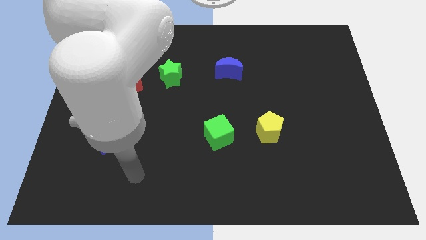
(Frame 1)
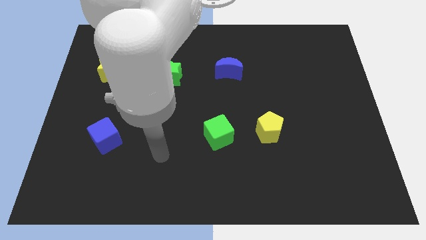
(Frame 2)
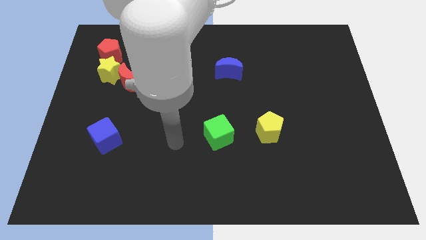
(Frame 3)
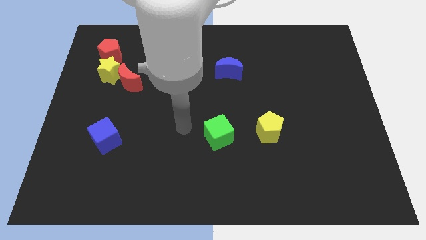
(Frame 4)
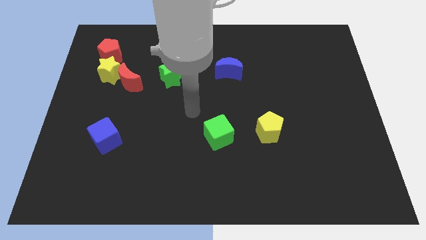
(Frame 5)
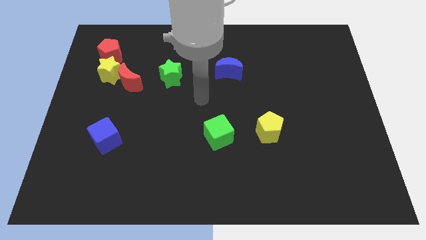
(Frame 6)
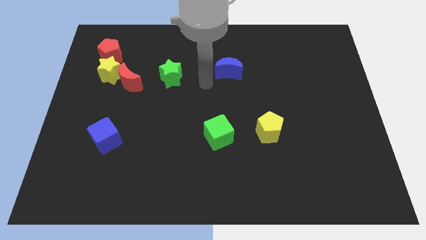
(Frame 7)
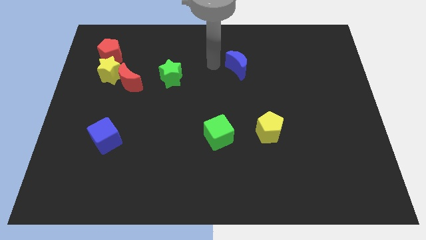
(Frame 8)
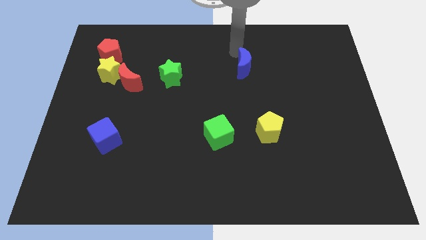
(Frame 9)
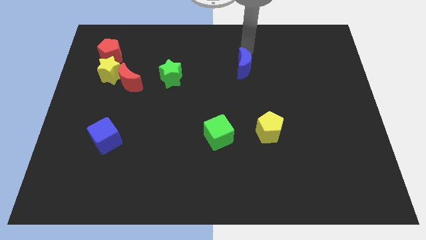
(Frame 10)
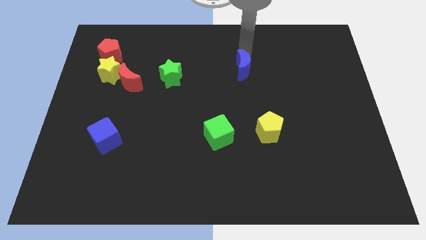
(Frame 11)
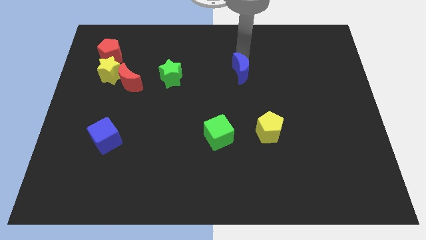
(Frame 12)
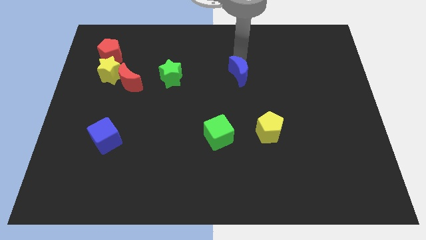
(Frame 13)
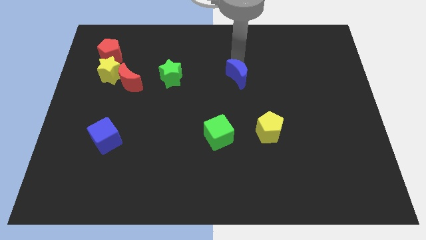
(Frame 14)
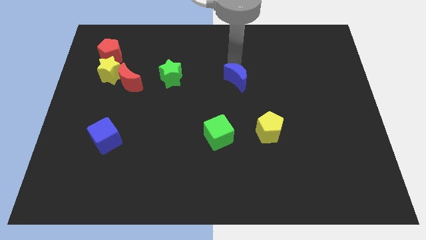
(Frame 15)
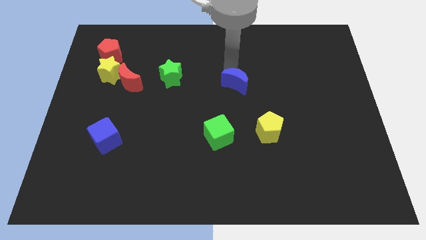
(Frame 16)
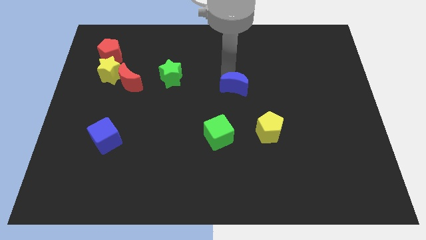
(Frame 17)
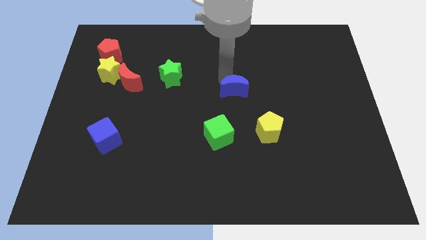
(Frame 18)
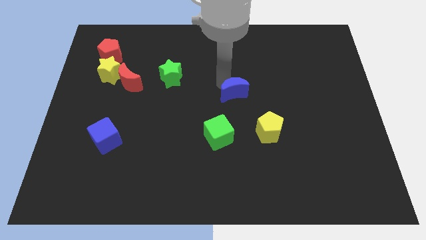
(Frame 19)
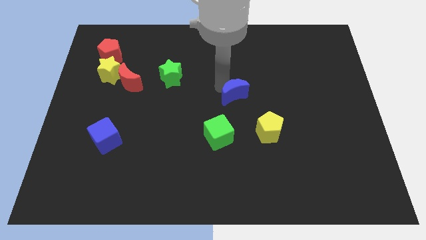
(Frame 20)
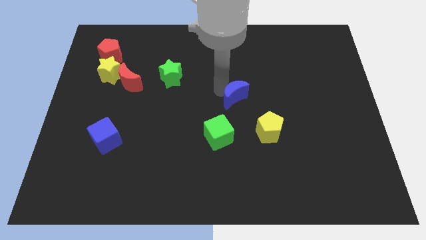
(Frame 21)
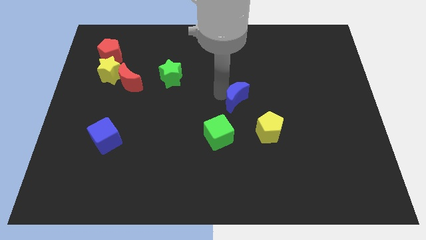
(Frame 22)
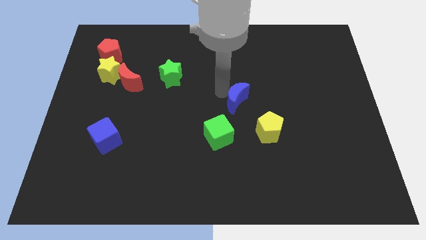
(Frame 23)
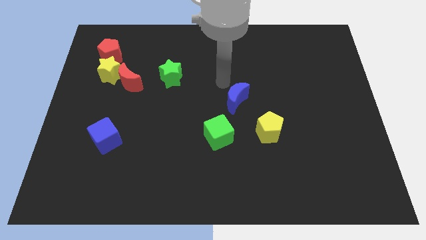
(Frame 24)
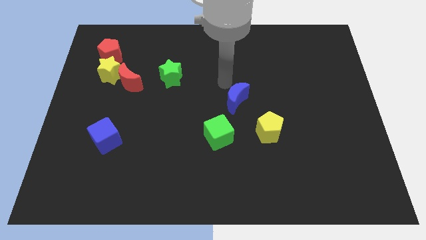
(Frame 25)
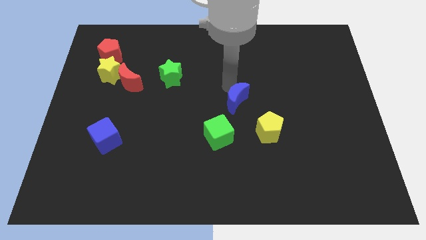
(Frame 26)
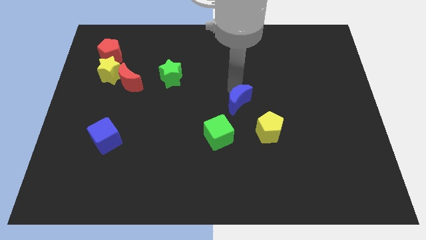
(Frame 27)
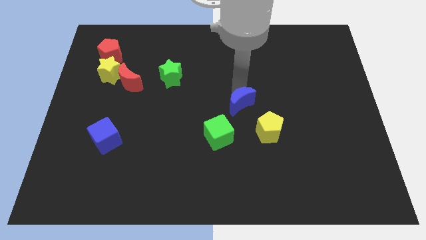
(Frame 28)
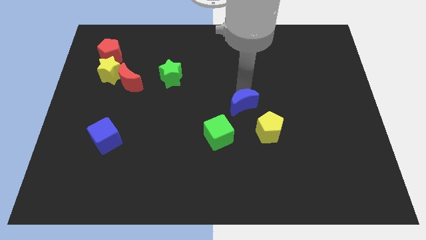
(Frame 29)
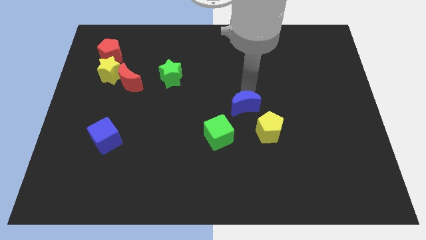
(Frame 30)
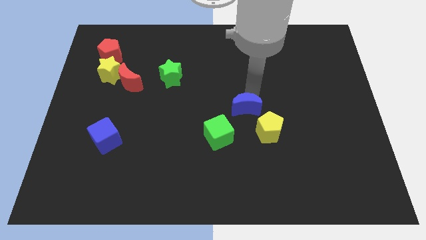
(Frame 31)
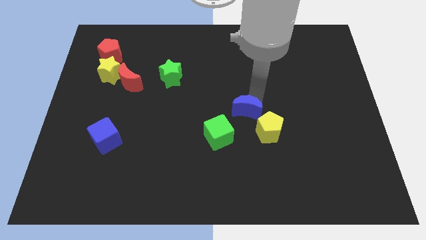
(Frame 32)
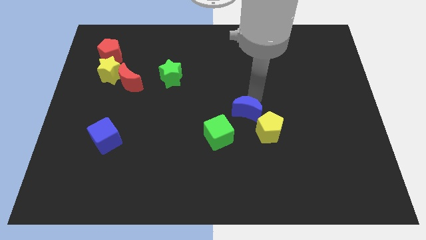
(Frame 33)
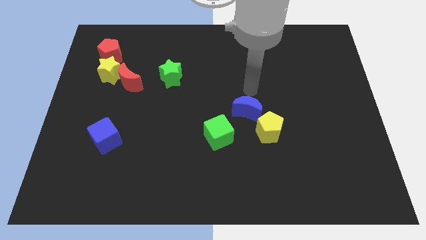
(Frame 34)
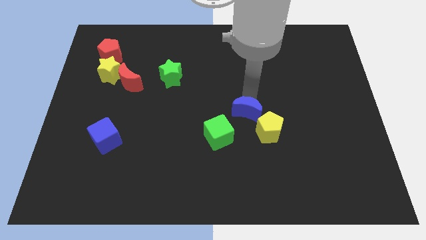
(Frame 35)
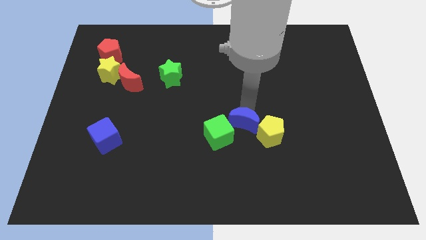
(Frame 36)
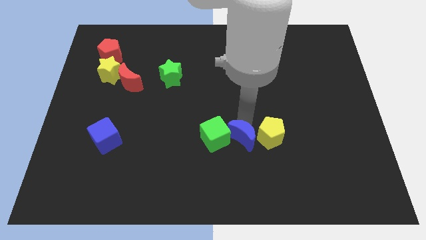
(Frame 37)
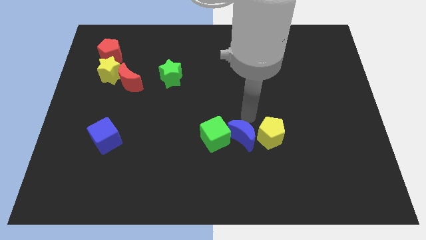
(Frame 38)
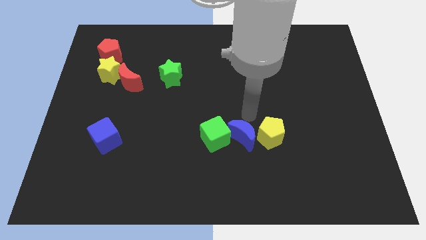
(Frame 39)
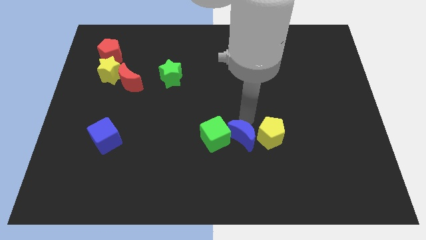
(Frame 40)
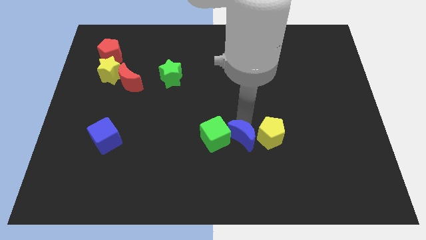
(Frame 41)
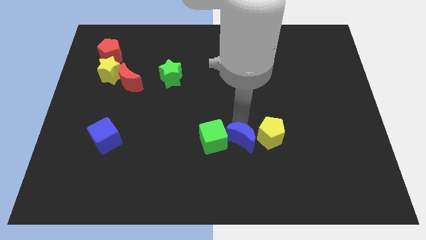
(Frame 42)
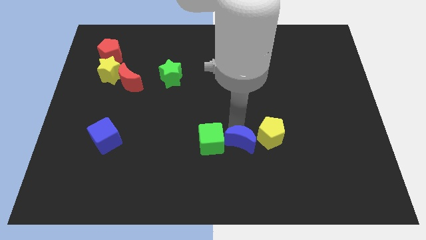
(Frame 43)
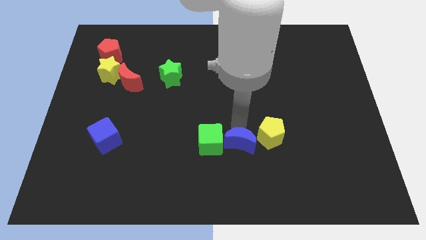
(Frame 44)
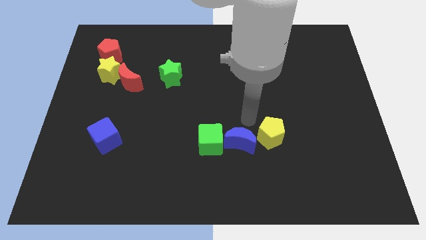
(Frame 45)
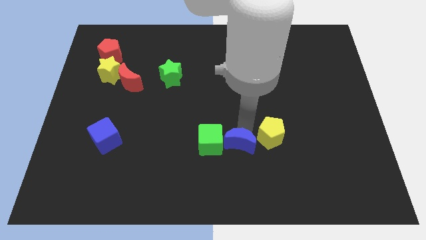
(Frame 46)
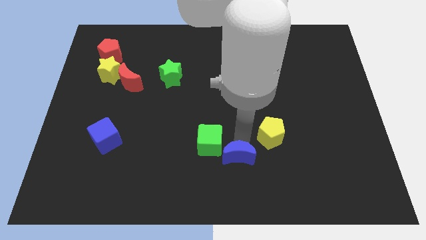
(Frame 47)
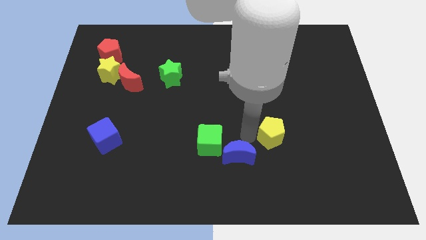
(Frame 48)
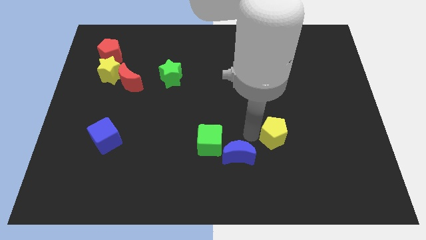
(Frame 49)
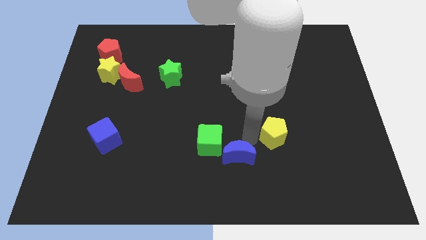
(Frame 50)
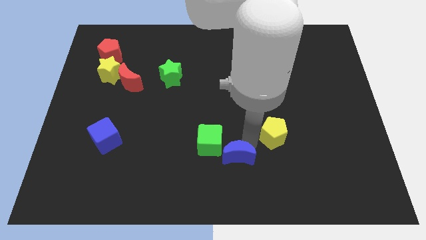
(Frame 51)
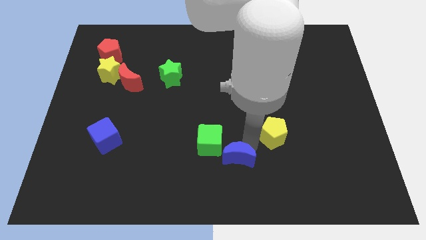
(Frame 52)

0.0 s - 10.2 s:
put the blue moon to the bottom

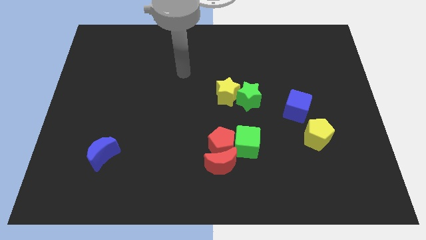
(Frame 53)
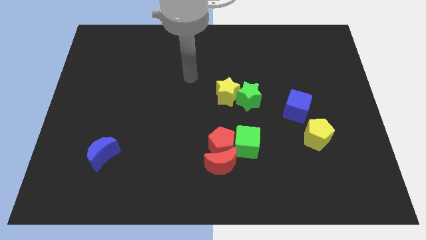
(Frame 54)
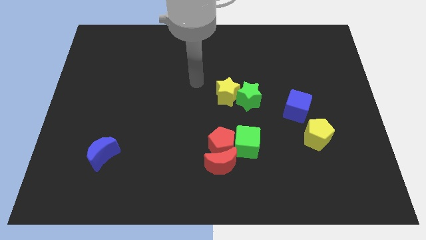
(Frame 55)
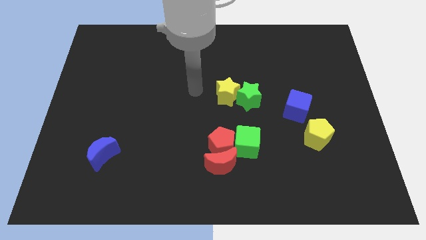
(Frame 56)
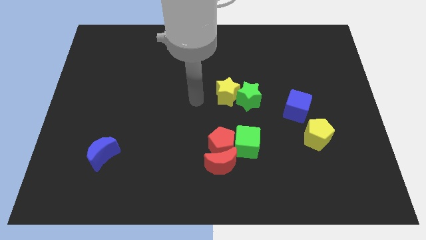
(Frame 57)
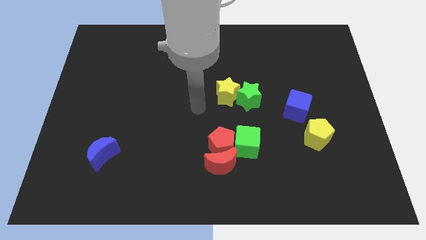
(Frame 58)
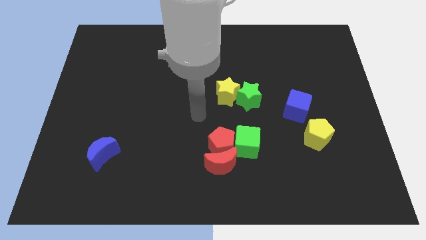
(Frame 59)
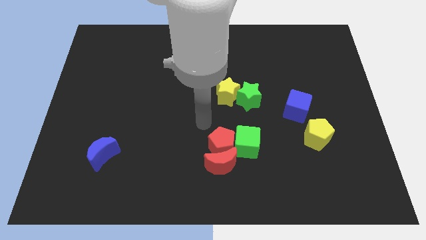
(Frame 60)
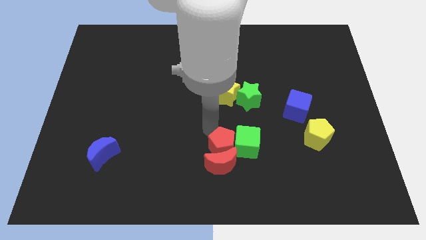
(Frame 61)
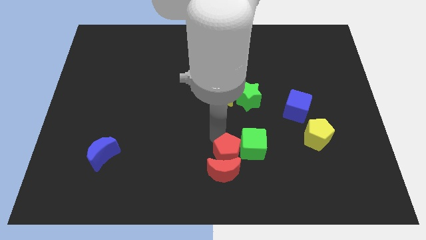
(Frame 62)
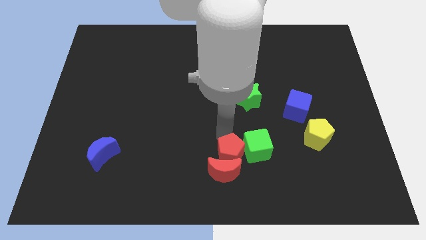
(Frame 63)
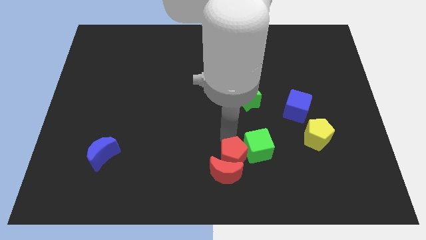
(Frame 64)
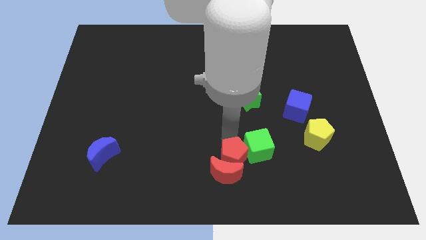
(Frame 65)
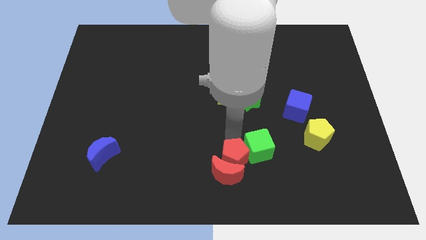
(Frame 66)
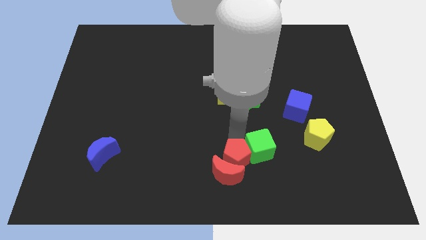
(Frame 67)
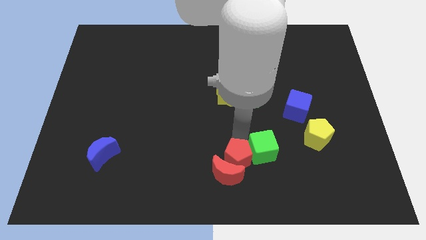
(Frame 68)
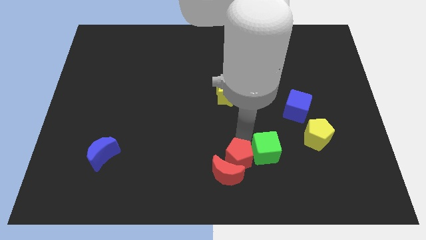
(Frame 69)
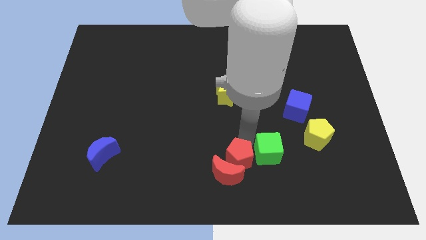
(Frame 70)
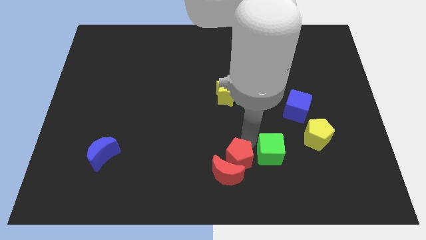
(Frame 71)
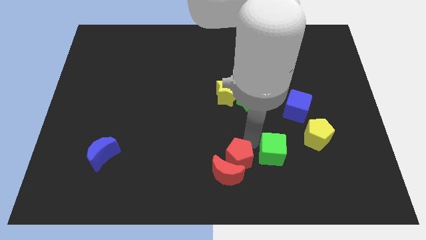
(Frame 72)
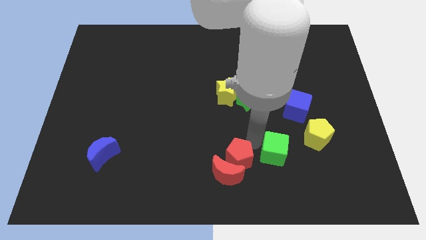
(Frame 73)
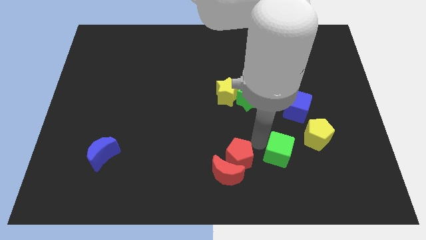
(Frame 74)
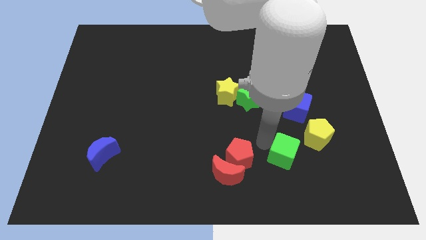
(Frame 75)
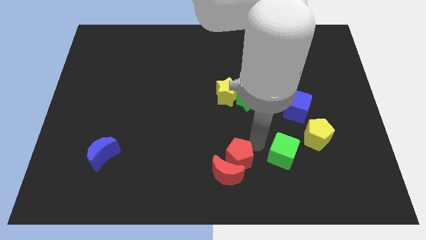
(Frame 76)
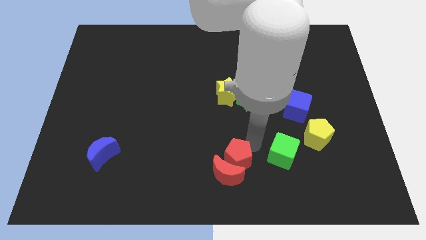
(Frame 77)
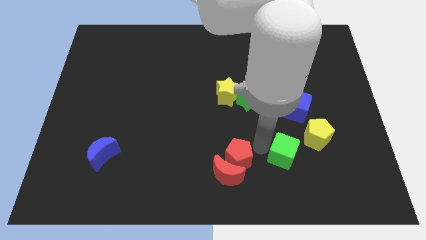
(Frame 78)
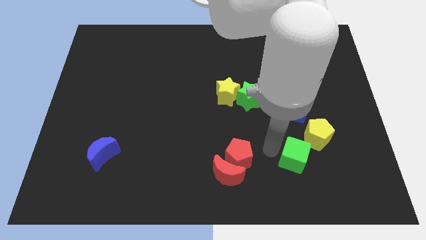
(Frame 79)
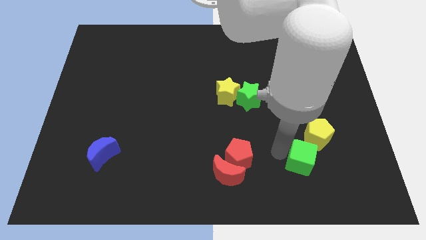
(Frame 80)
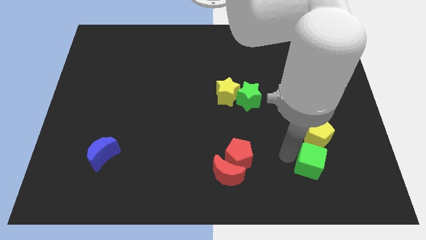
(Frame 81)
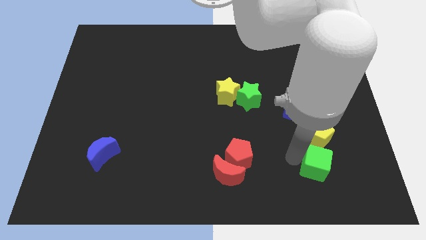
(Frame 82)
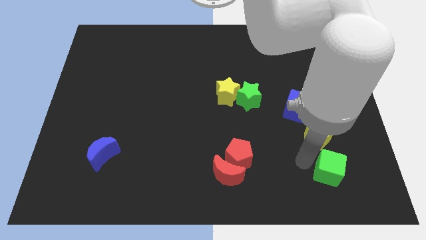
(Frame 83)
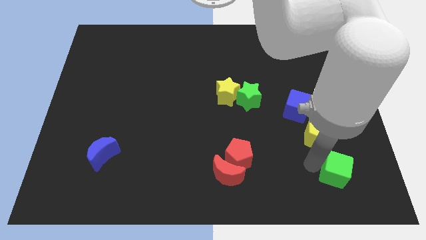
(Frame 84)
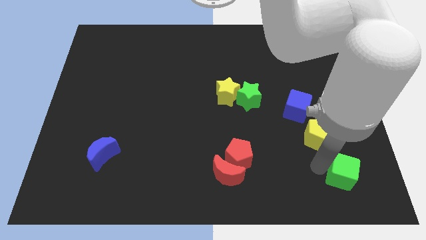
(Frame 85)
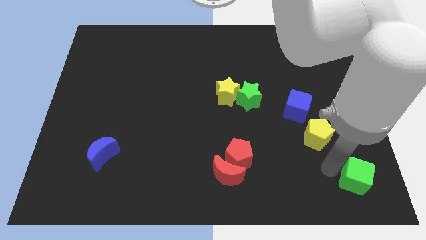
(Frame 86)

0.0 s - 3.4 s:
push the green cube to the bottom right of the board
